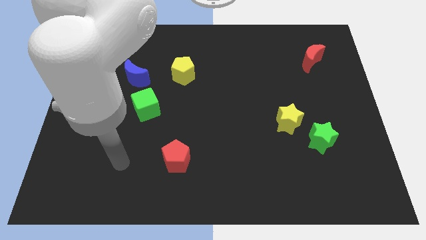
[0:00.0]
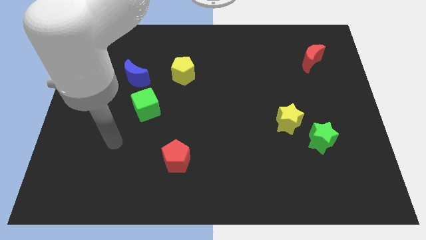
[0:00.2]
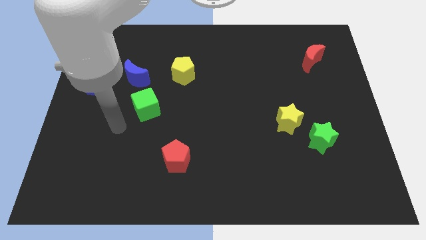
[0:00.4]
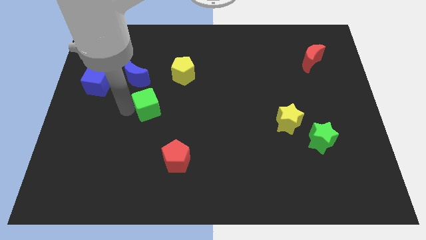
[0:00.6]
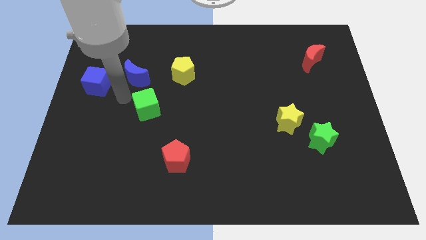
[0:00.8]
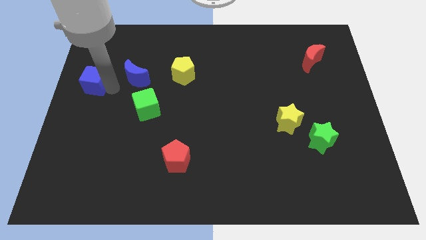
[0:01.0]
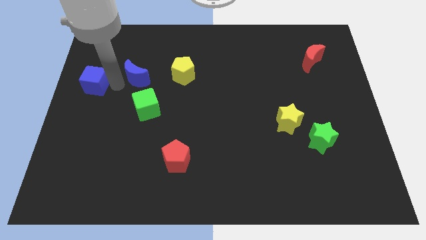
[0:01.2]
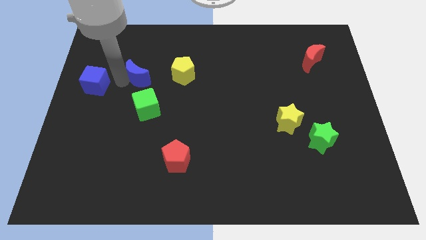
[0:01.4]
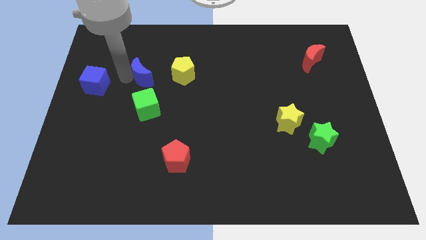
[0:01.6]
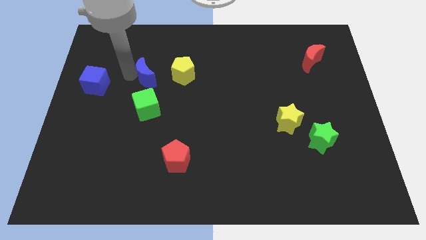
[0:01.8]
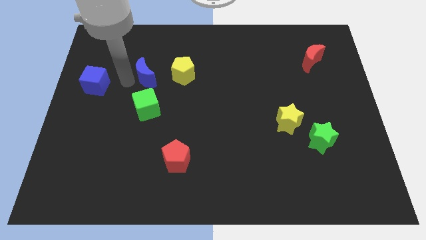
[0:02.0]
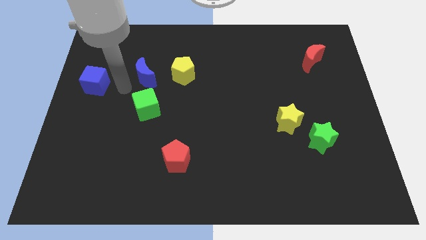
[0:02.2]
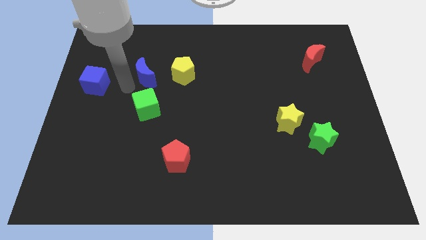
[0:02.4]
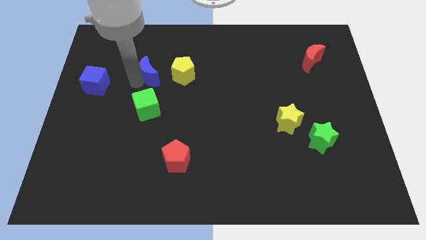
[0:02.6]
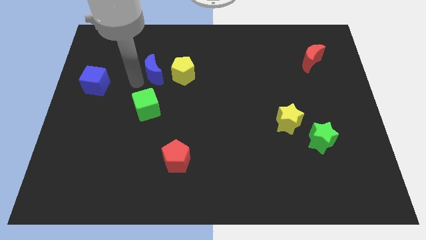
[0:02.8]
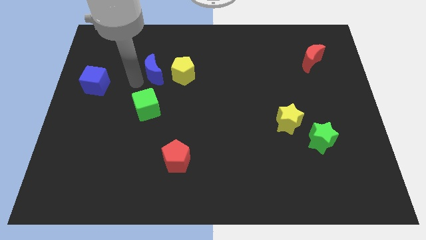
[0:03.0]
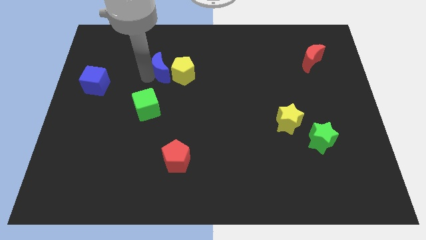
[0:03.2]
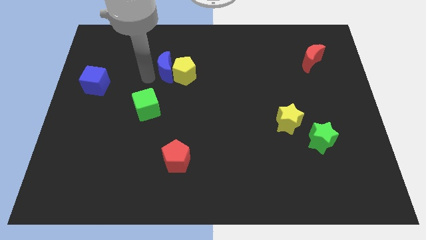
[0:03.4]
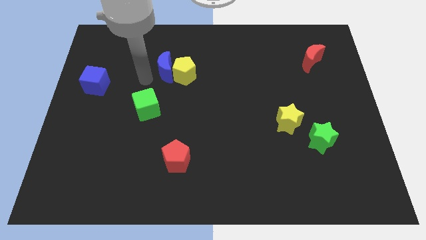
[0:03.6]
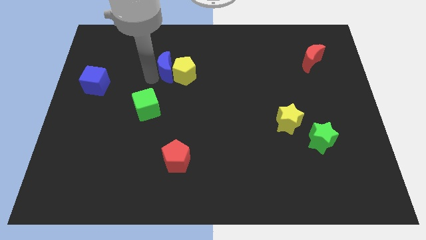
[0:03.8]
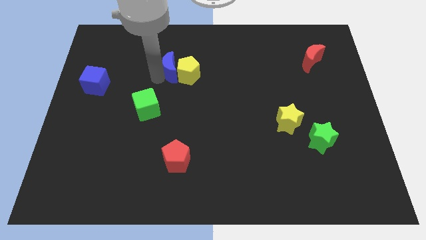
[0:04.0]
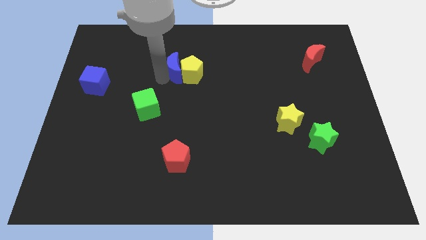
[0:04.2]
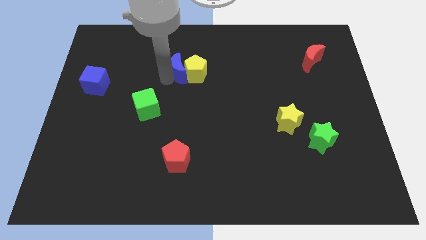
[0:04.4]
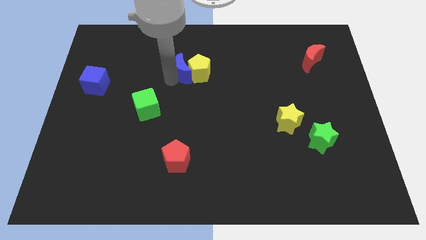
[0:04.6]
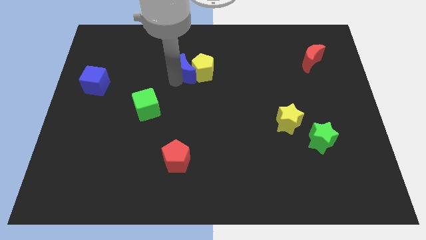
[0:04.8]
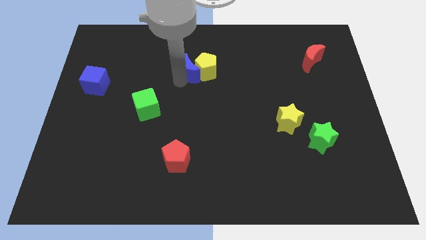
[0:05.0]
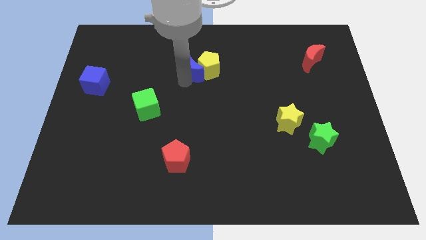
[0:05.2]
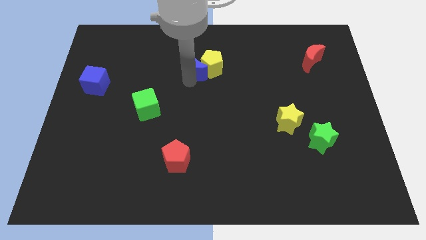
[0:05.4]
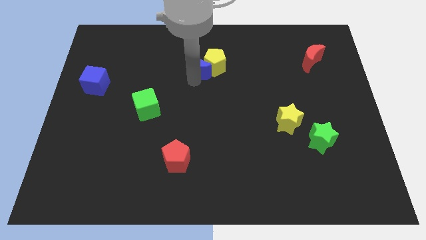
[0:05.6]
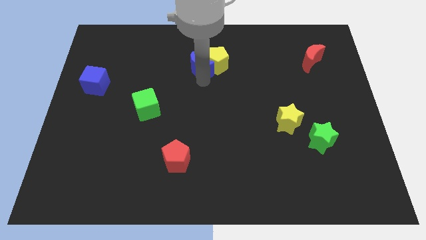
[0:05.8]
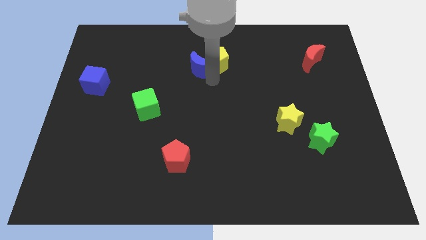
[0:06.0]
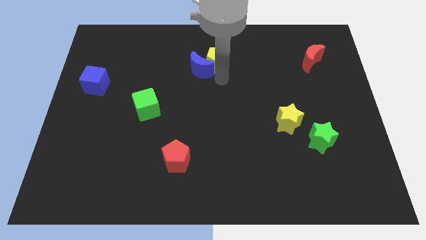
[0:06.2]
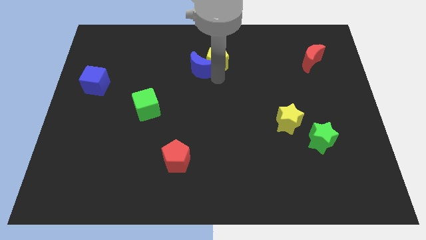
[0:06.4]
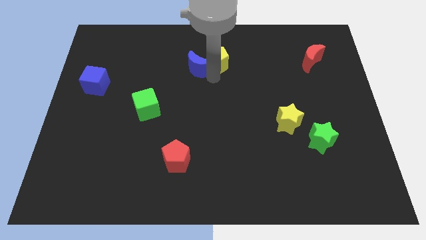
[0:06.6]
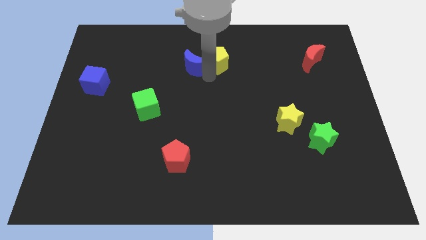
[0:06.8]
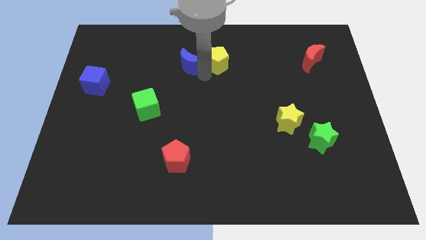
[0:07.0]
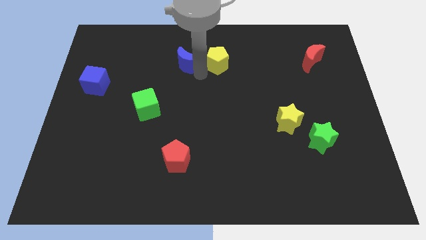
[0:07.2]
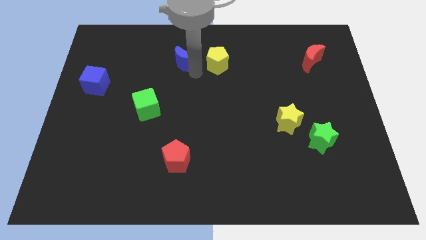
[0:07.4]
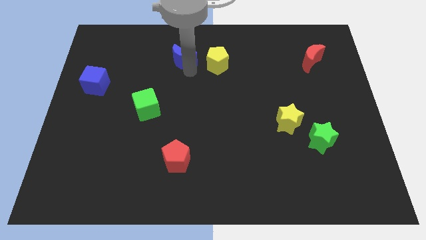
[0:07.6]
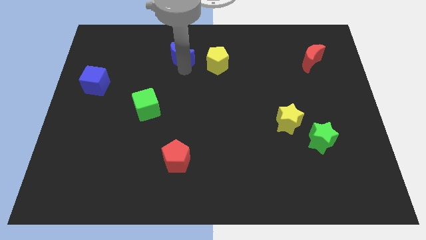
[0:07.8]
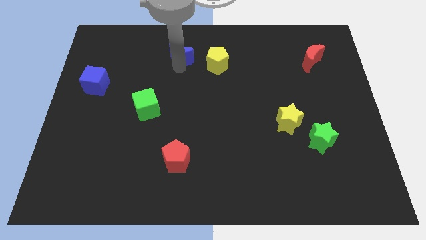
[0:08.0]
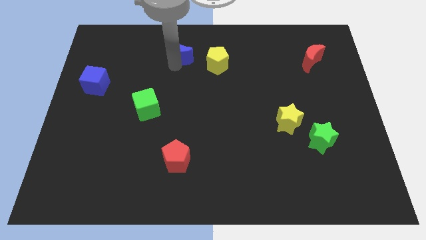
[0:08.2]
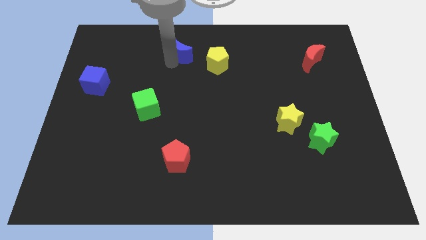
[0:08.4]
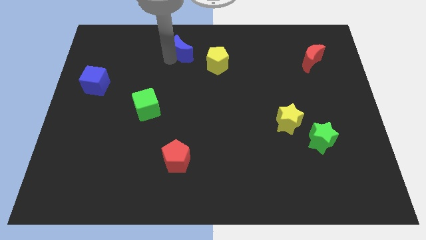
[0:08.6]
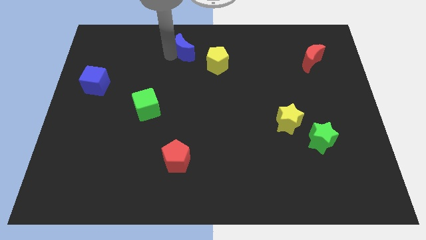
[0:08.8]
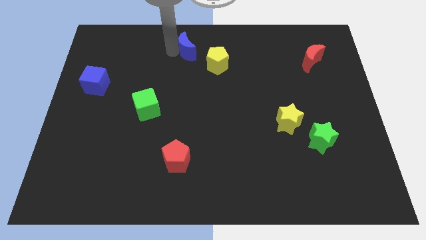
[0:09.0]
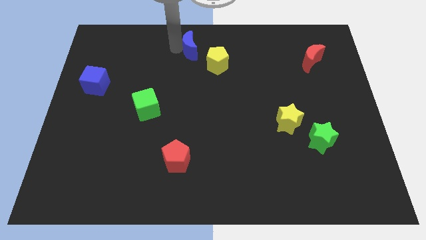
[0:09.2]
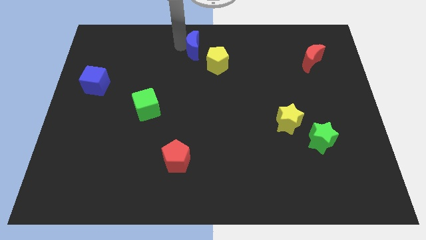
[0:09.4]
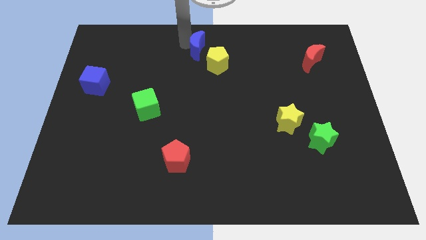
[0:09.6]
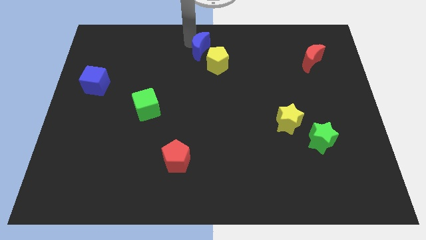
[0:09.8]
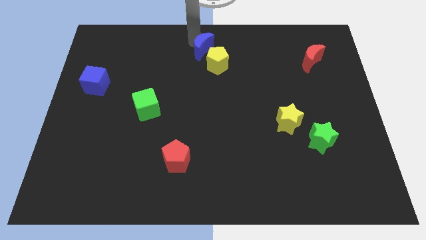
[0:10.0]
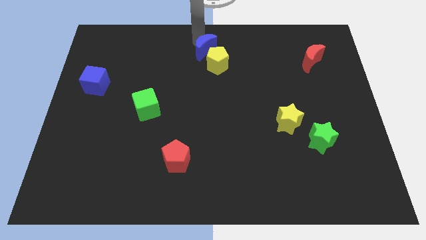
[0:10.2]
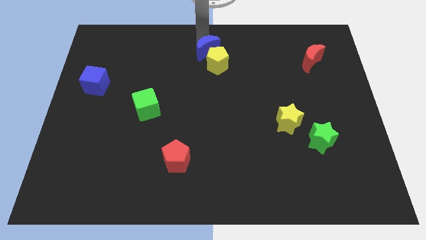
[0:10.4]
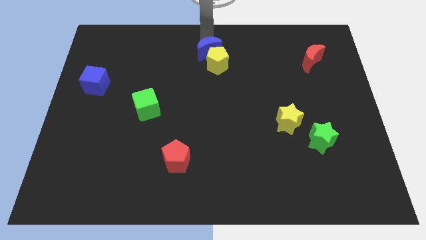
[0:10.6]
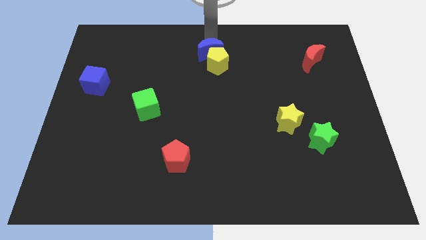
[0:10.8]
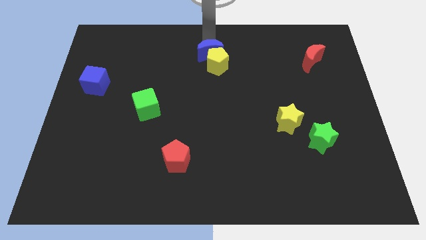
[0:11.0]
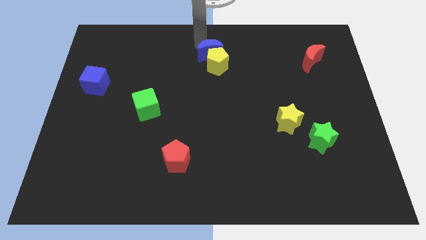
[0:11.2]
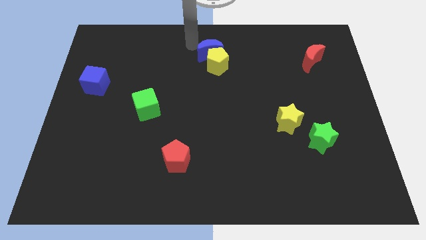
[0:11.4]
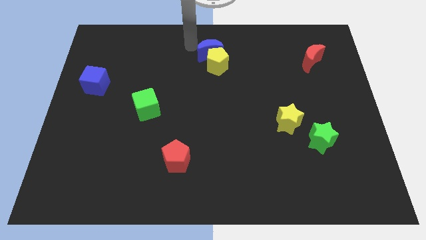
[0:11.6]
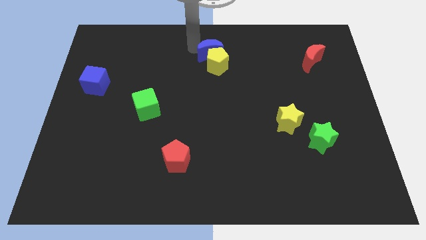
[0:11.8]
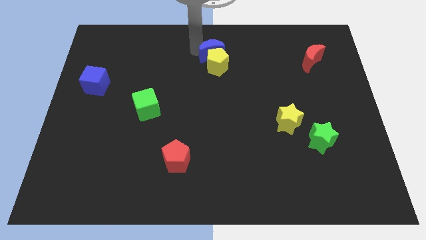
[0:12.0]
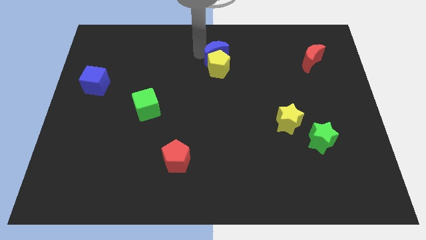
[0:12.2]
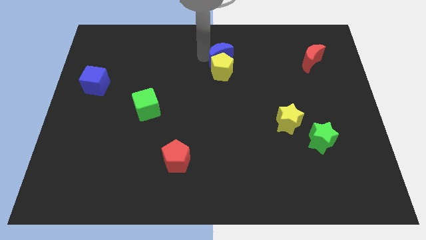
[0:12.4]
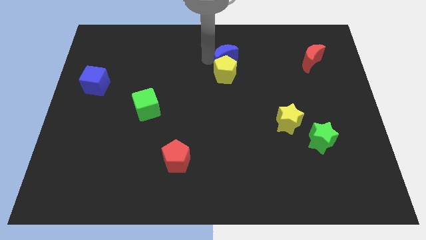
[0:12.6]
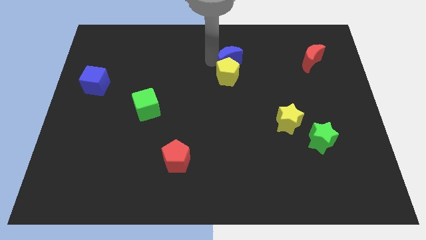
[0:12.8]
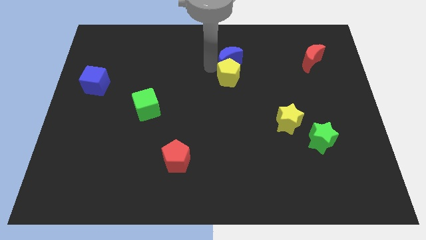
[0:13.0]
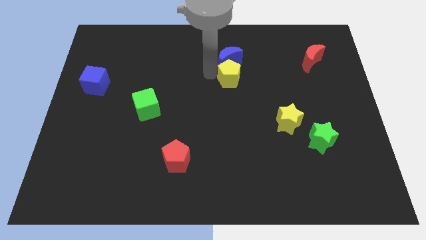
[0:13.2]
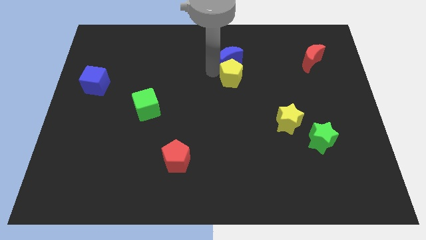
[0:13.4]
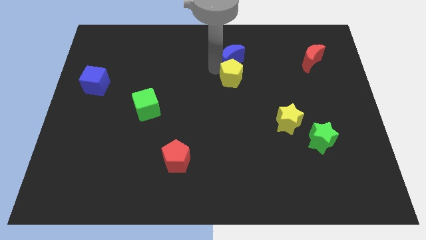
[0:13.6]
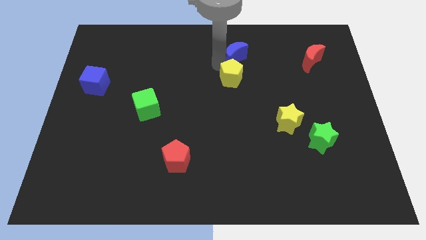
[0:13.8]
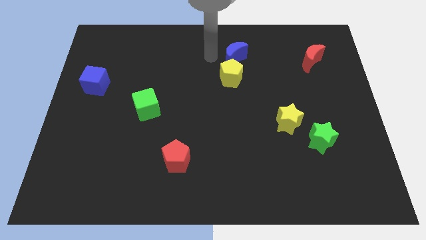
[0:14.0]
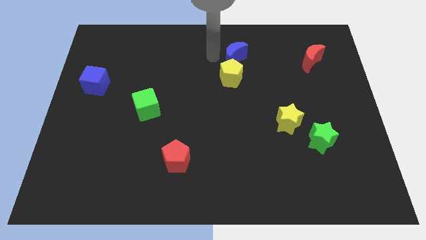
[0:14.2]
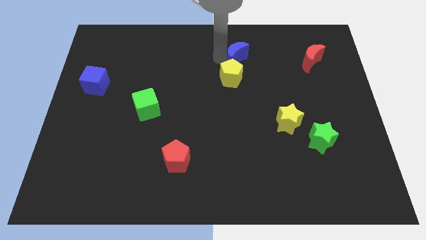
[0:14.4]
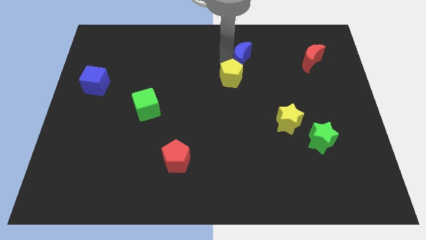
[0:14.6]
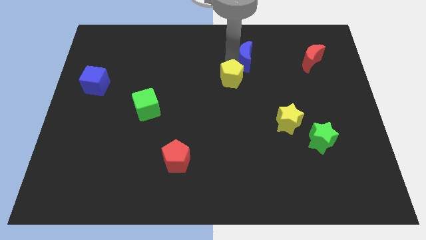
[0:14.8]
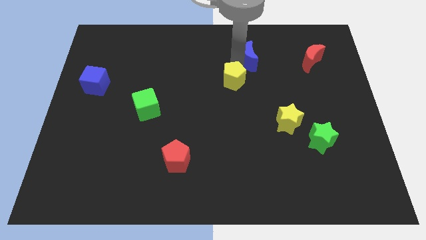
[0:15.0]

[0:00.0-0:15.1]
move the blue moon just left of the red moon

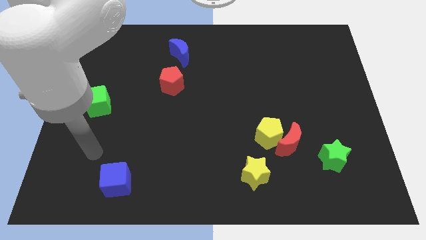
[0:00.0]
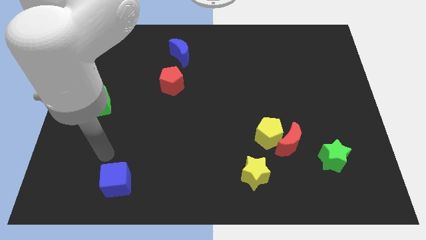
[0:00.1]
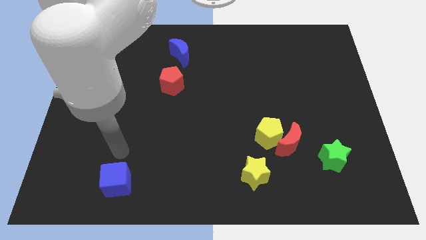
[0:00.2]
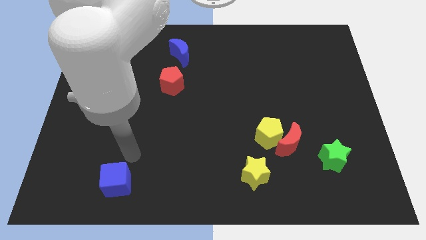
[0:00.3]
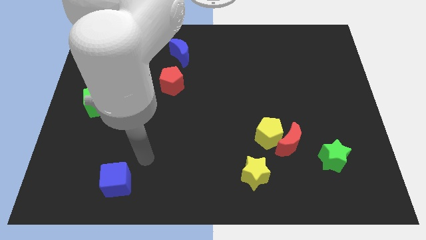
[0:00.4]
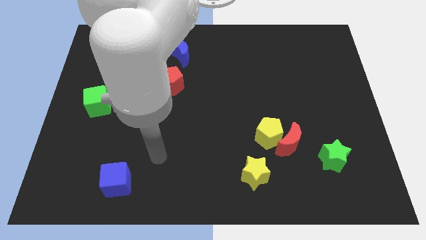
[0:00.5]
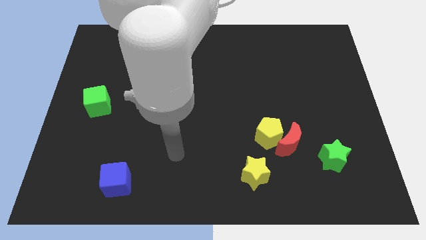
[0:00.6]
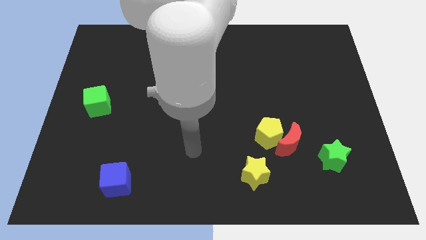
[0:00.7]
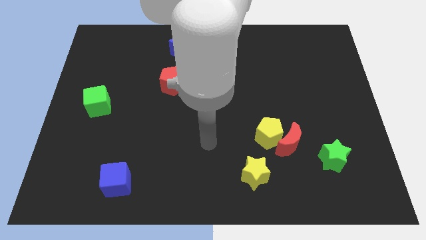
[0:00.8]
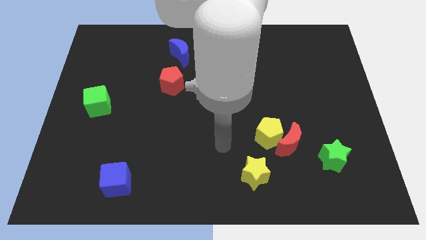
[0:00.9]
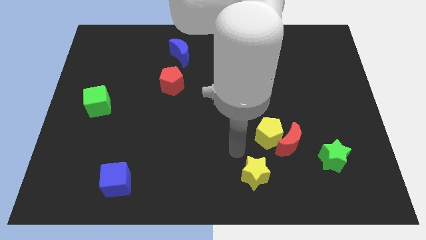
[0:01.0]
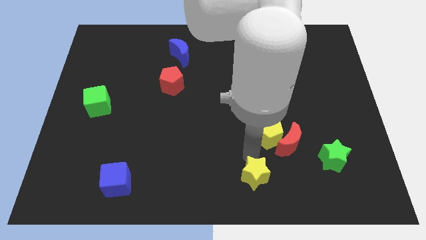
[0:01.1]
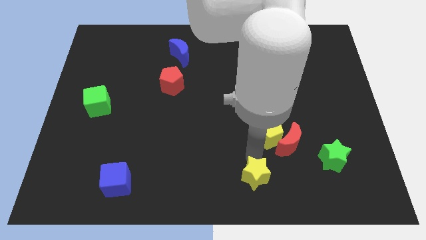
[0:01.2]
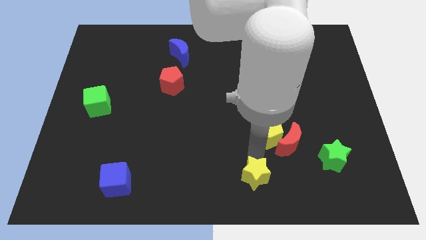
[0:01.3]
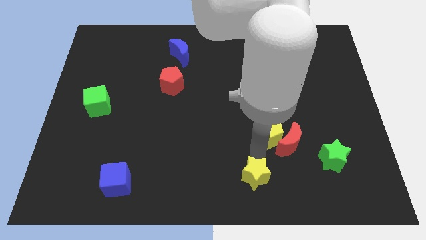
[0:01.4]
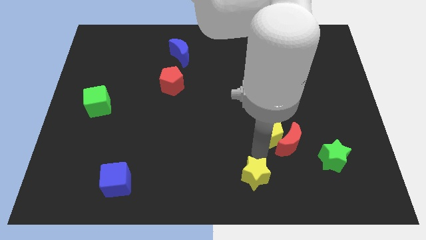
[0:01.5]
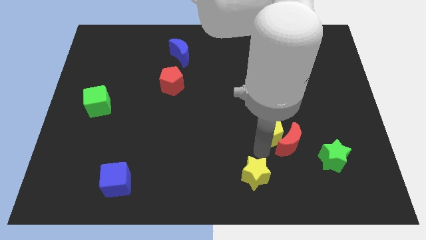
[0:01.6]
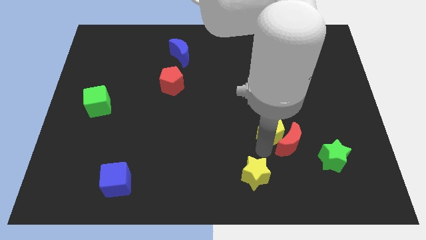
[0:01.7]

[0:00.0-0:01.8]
push the yellow pentagon above the red moon
